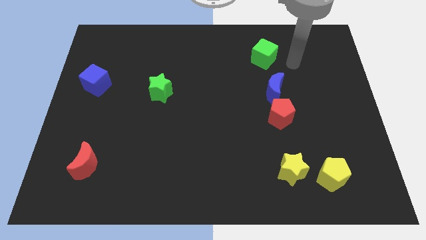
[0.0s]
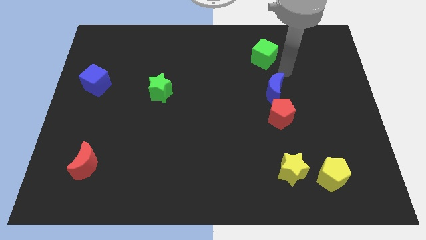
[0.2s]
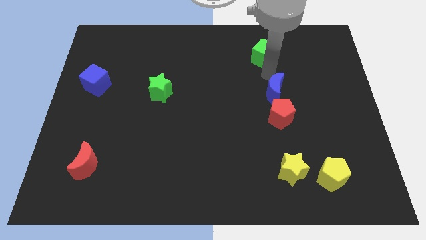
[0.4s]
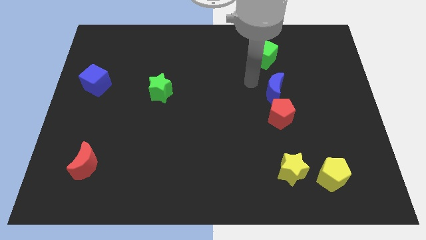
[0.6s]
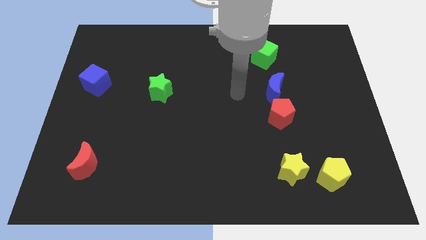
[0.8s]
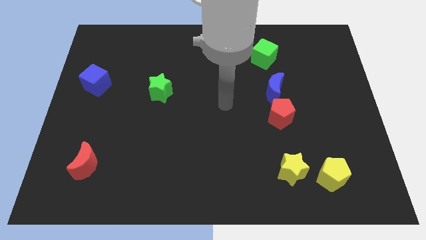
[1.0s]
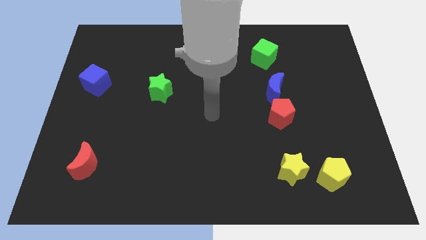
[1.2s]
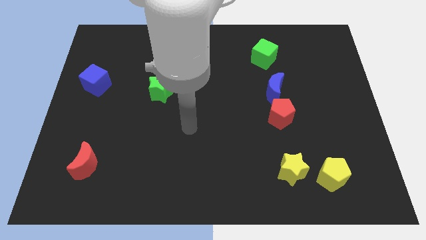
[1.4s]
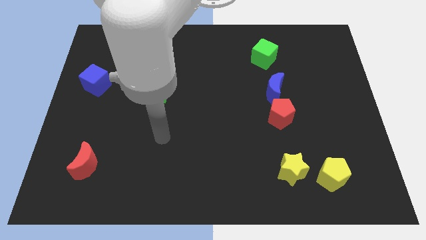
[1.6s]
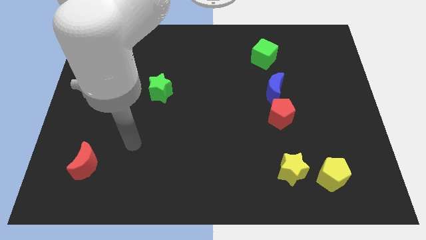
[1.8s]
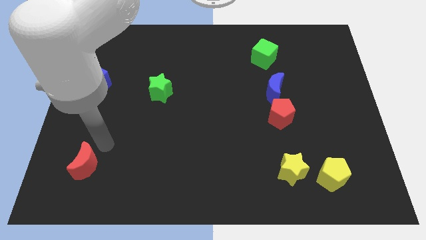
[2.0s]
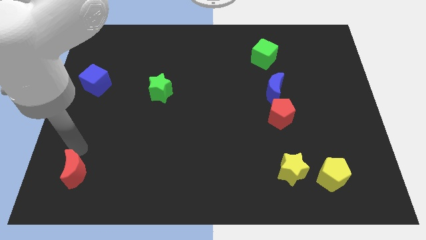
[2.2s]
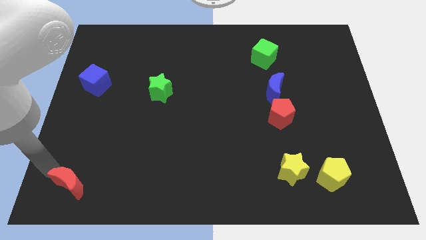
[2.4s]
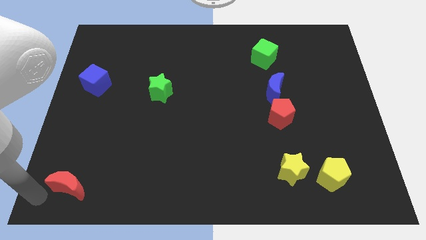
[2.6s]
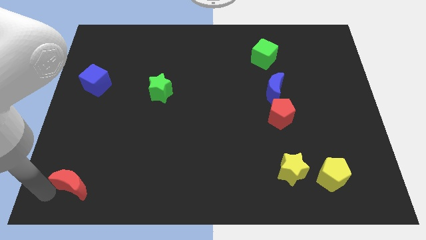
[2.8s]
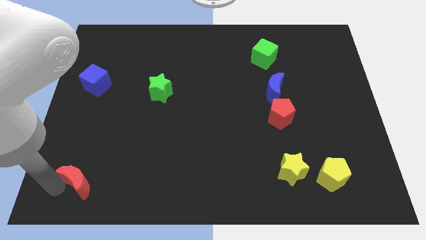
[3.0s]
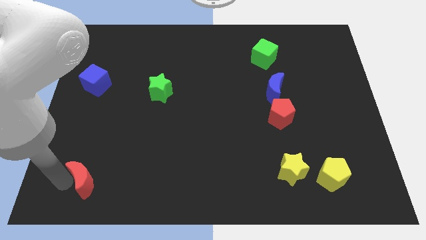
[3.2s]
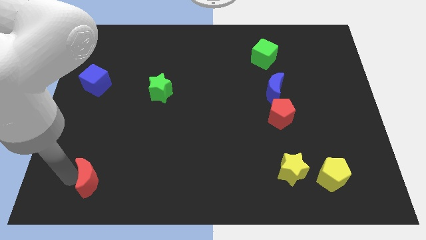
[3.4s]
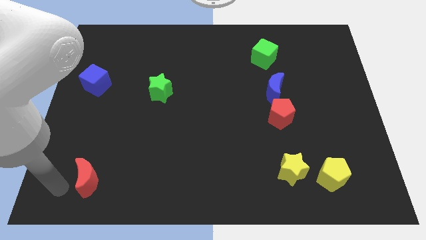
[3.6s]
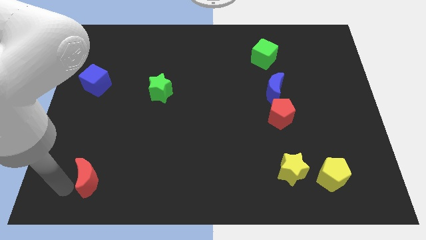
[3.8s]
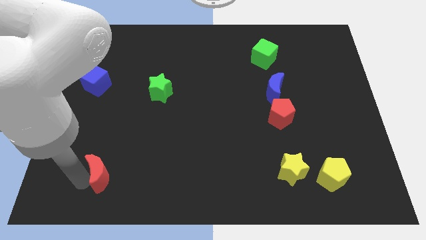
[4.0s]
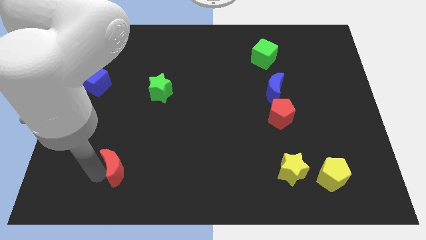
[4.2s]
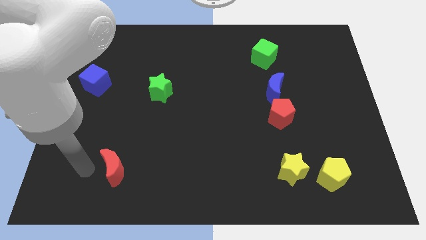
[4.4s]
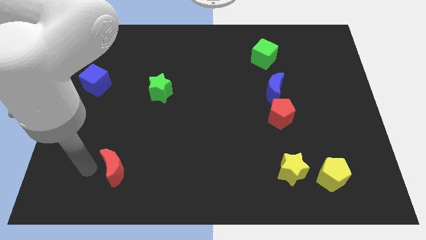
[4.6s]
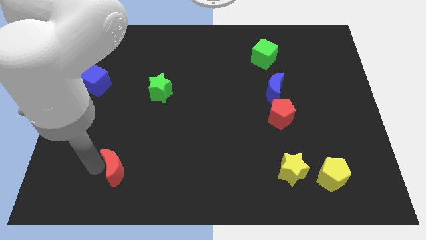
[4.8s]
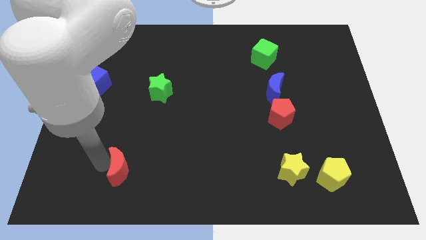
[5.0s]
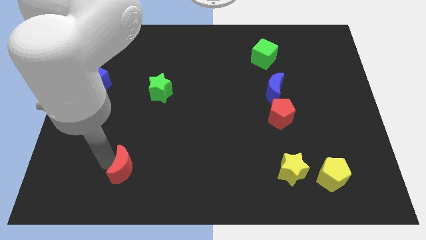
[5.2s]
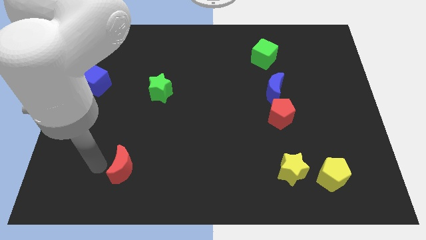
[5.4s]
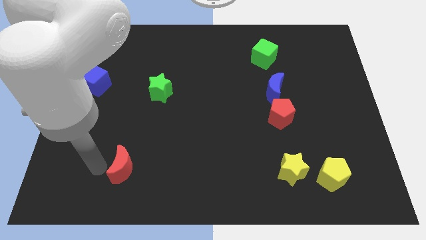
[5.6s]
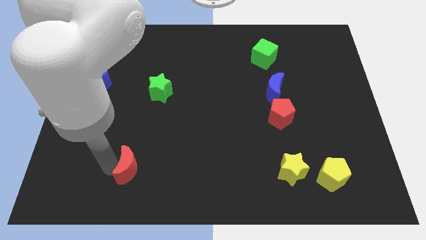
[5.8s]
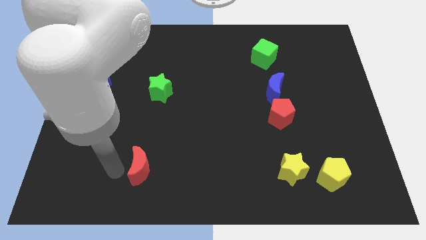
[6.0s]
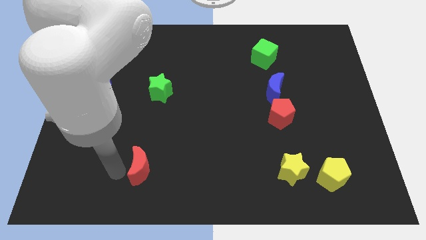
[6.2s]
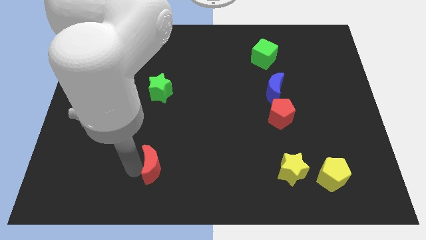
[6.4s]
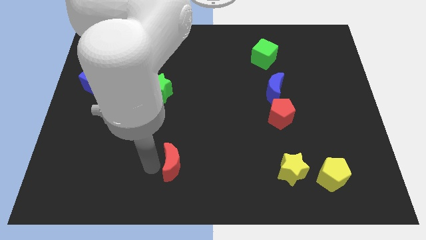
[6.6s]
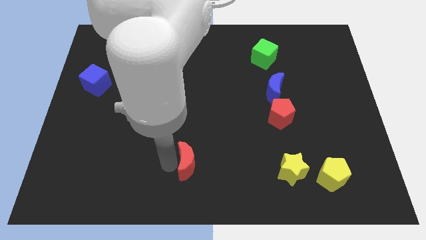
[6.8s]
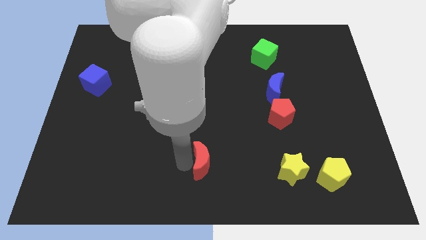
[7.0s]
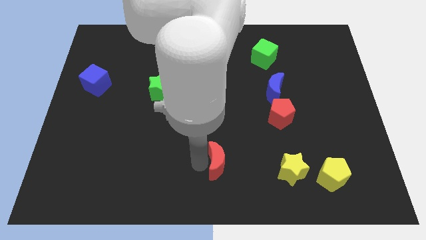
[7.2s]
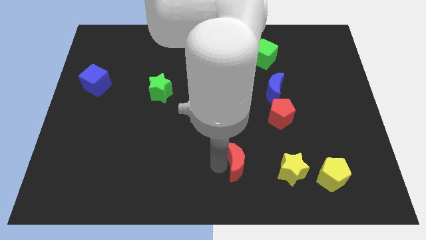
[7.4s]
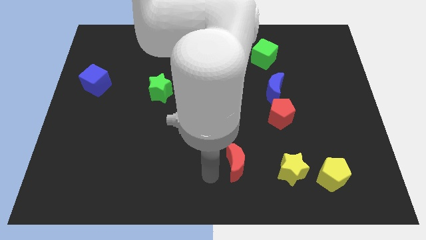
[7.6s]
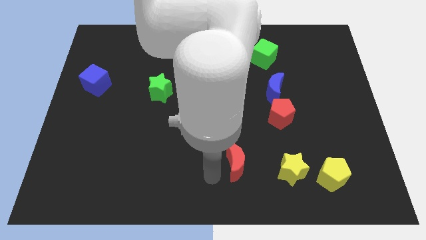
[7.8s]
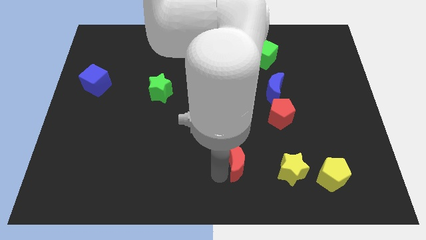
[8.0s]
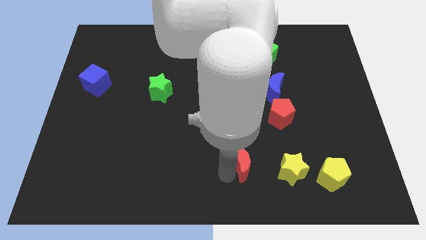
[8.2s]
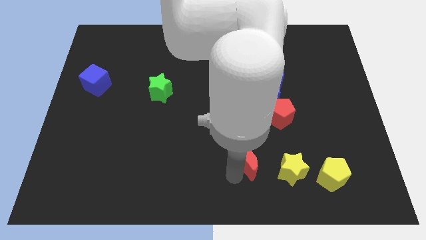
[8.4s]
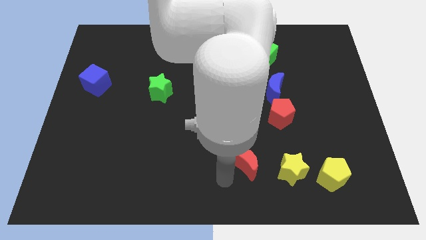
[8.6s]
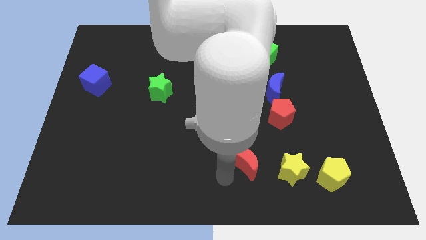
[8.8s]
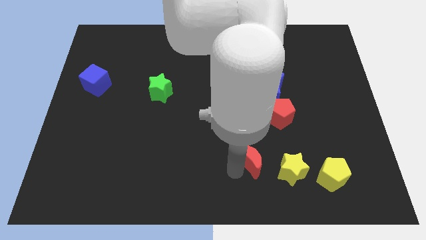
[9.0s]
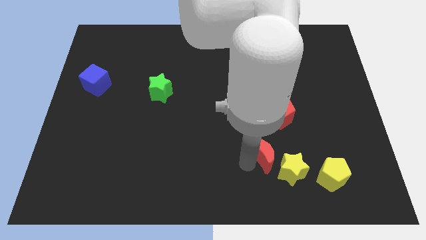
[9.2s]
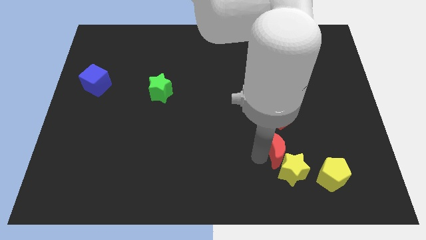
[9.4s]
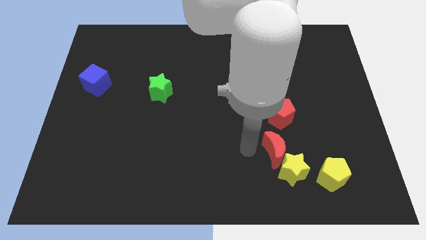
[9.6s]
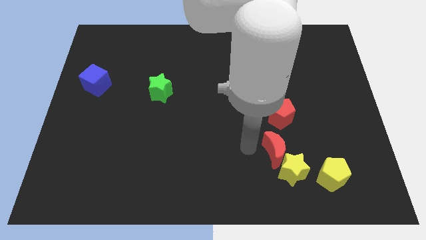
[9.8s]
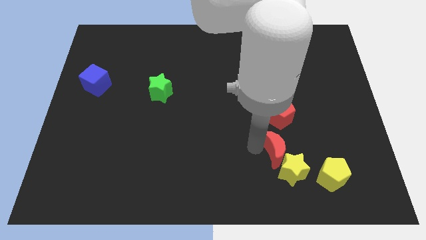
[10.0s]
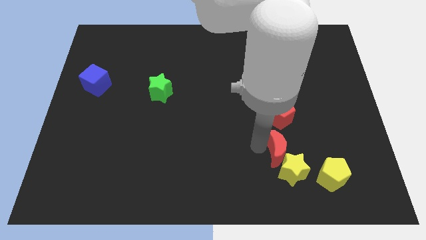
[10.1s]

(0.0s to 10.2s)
push the red moon to the top left of the yellow pentagon

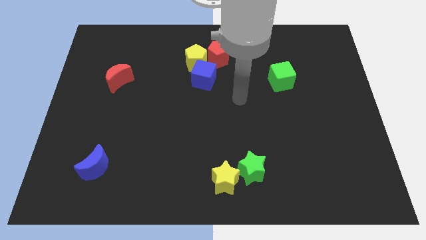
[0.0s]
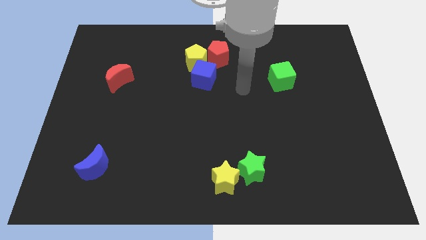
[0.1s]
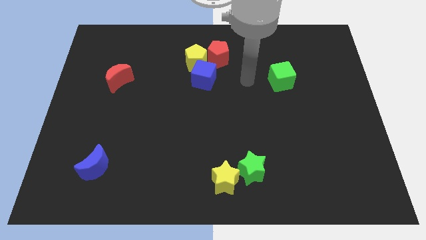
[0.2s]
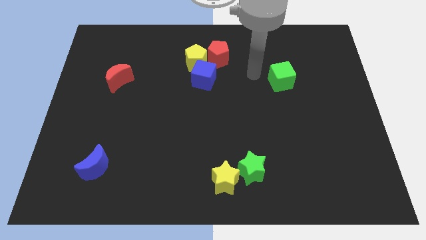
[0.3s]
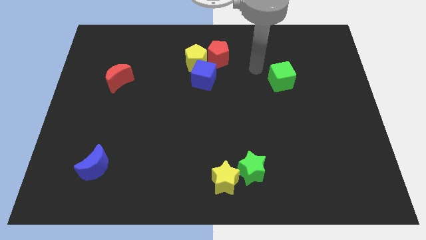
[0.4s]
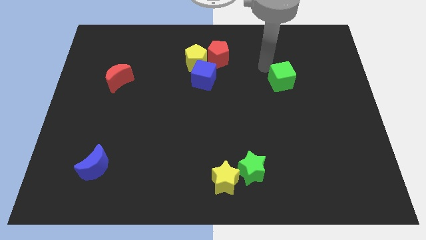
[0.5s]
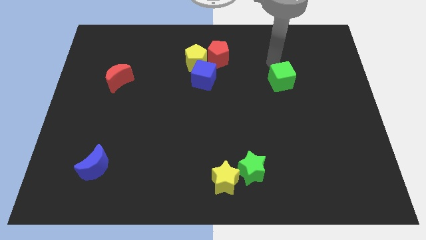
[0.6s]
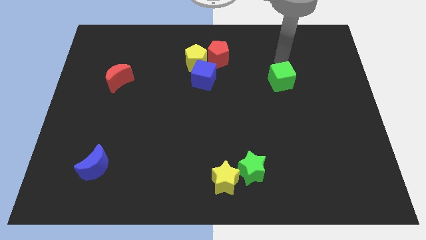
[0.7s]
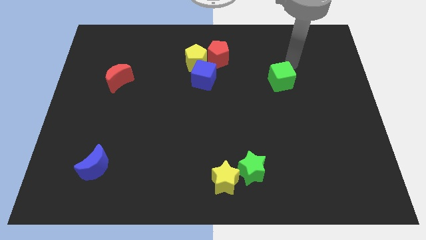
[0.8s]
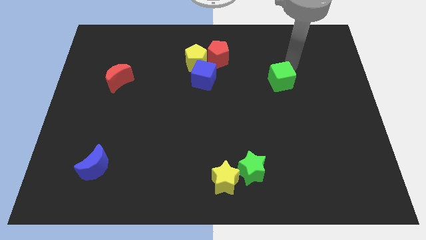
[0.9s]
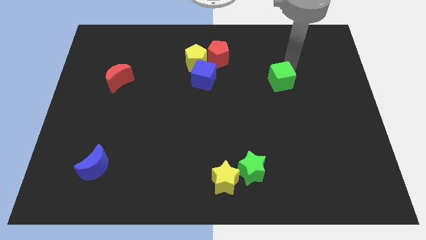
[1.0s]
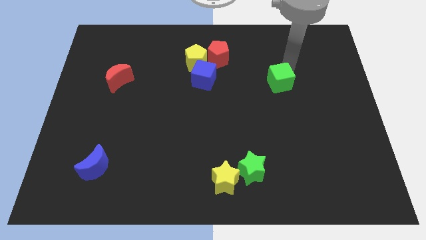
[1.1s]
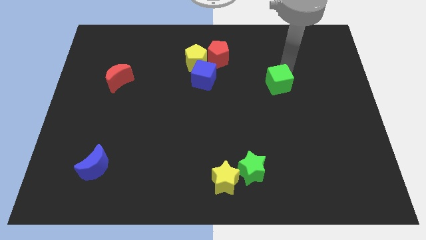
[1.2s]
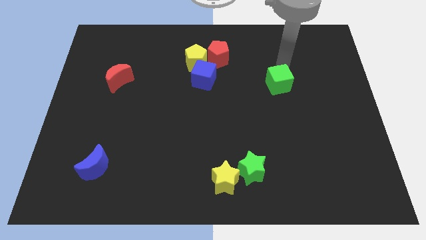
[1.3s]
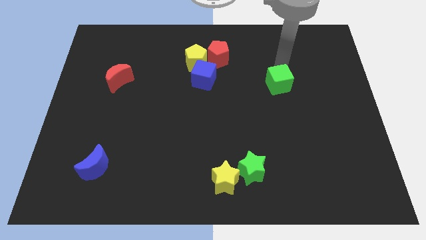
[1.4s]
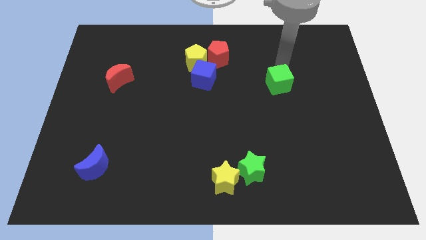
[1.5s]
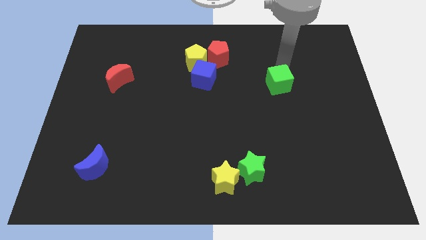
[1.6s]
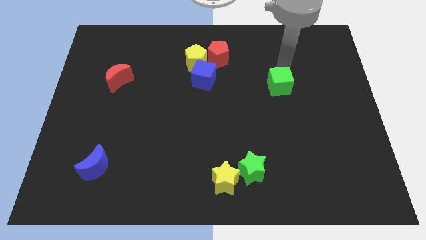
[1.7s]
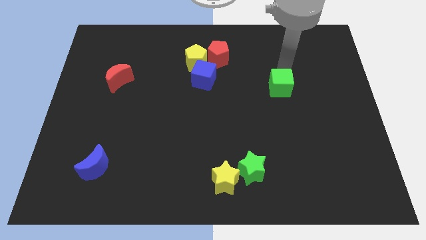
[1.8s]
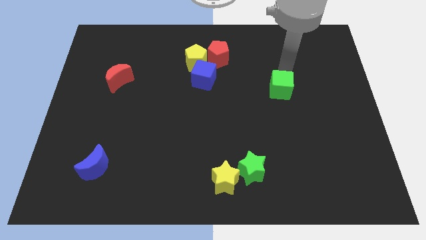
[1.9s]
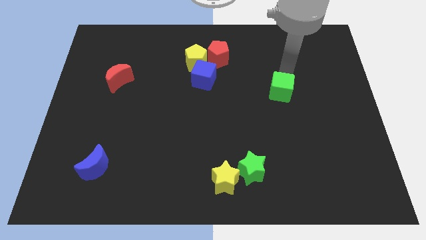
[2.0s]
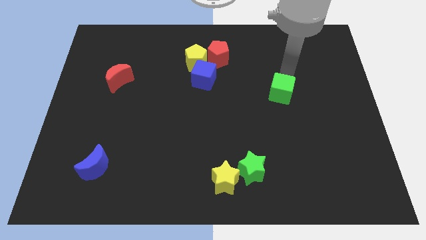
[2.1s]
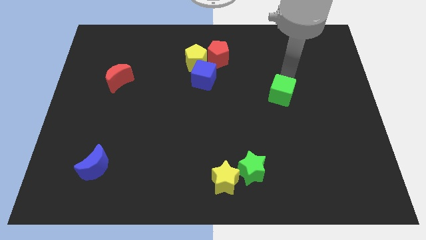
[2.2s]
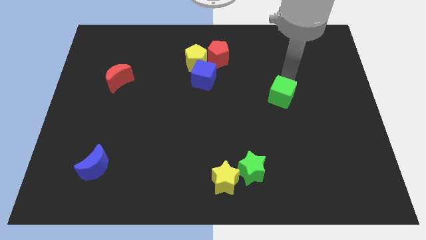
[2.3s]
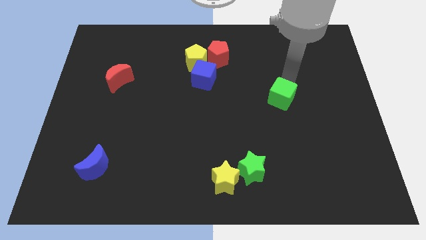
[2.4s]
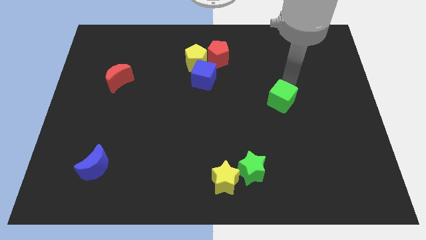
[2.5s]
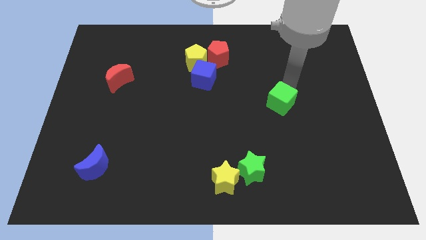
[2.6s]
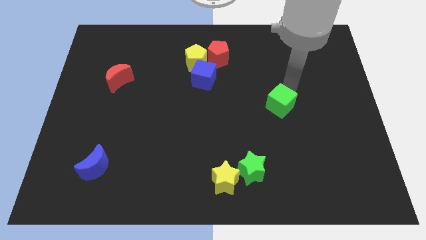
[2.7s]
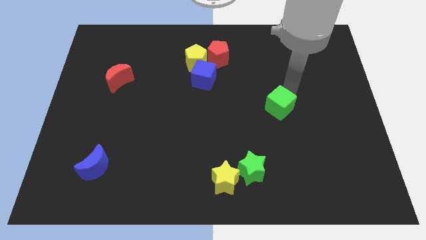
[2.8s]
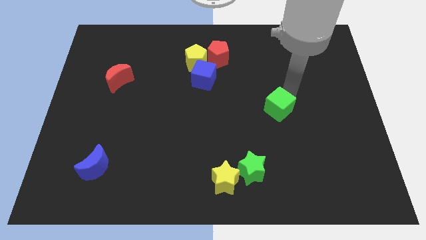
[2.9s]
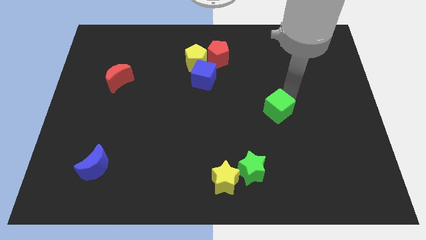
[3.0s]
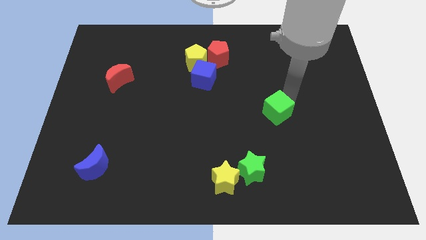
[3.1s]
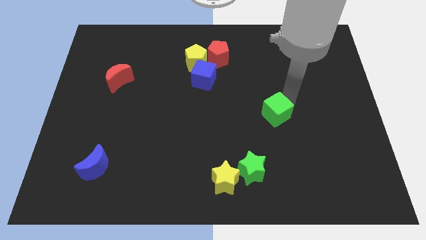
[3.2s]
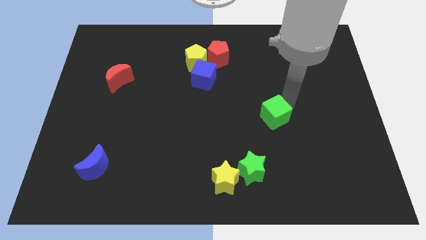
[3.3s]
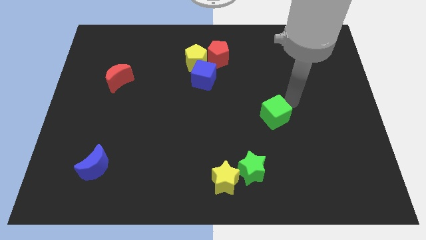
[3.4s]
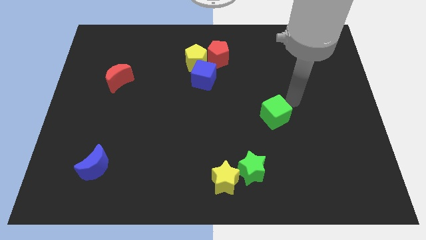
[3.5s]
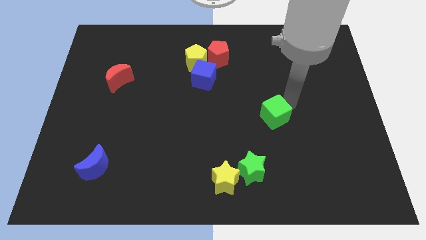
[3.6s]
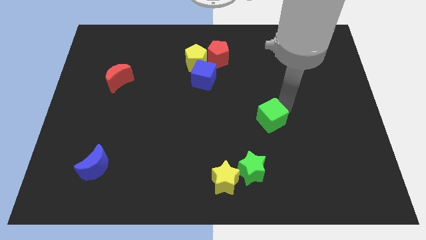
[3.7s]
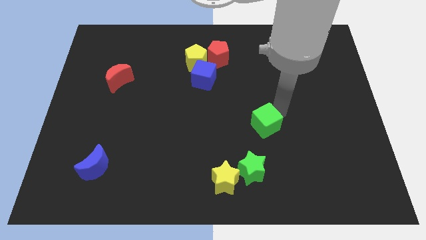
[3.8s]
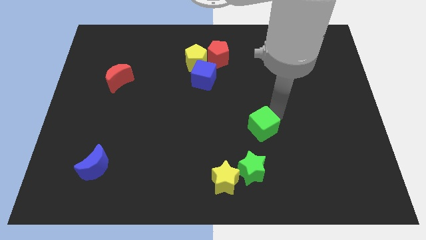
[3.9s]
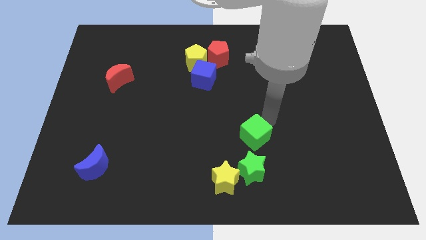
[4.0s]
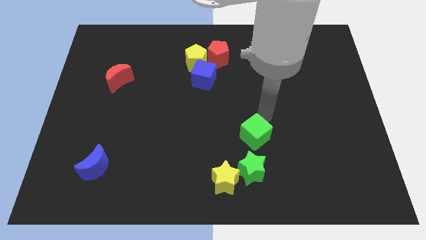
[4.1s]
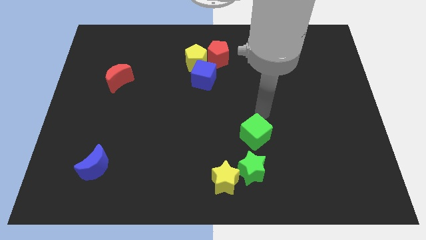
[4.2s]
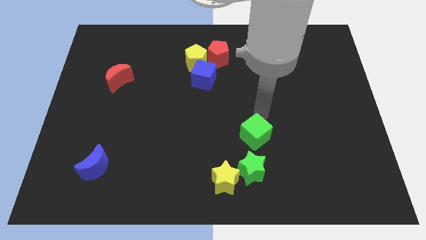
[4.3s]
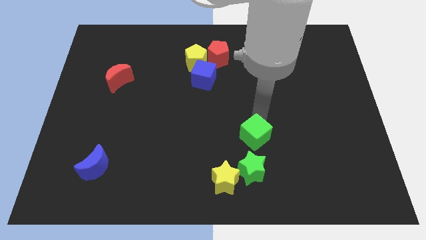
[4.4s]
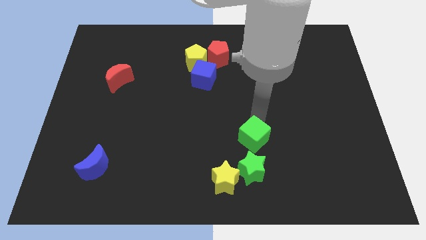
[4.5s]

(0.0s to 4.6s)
move the green cube diagonally up and to the right of the yellow star
